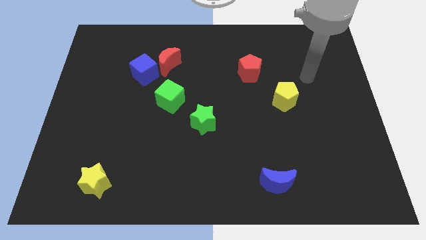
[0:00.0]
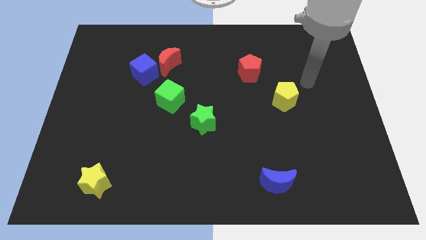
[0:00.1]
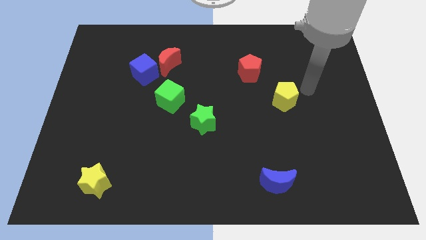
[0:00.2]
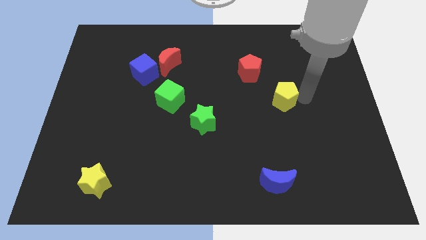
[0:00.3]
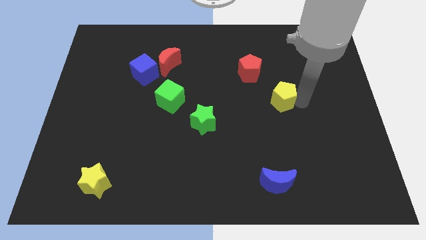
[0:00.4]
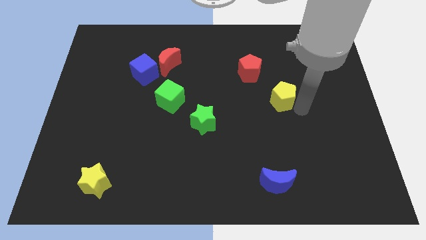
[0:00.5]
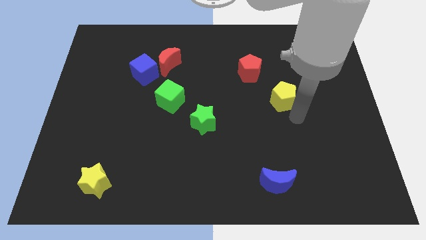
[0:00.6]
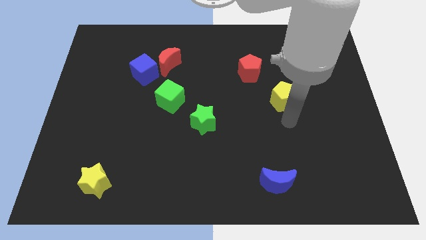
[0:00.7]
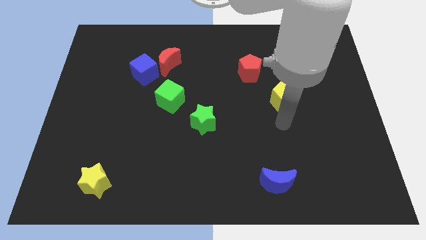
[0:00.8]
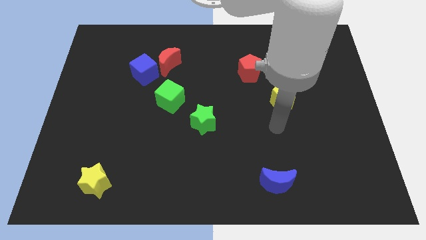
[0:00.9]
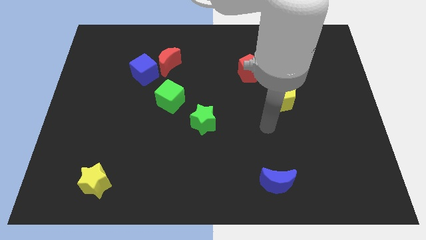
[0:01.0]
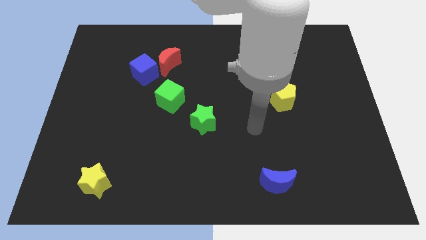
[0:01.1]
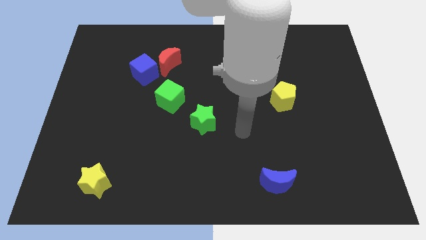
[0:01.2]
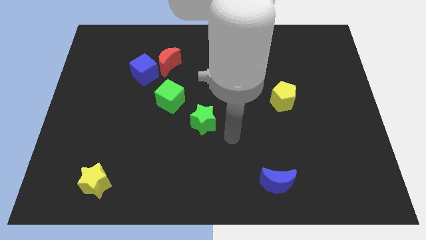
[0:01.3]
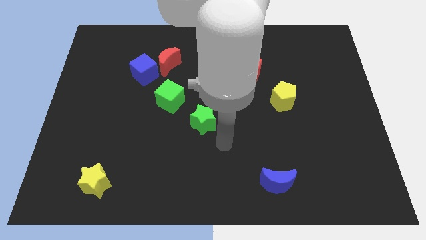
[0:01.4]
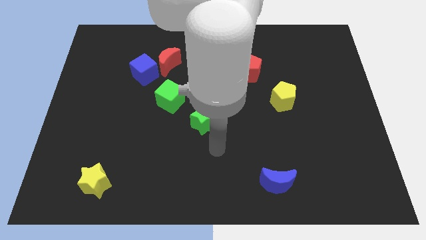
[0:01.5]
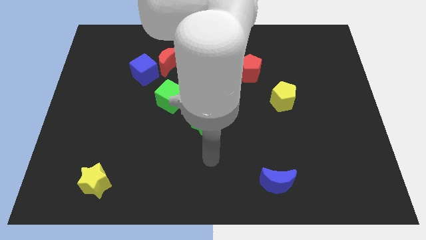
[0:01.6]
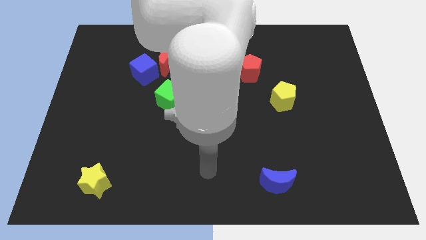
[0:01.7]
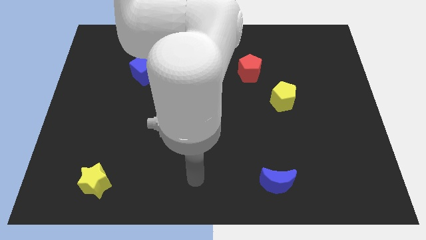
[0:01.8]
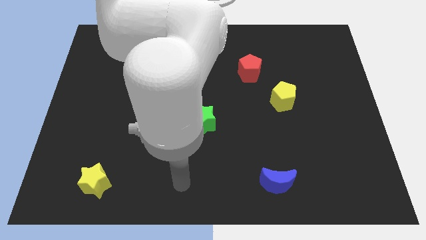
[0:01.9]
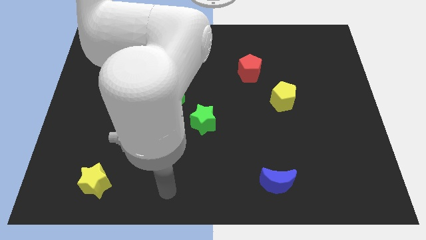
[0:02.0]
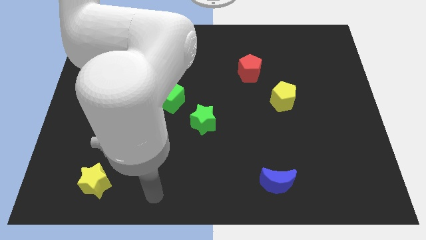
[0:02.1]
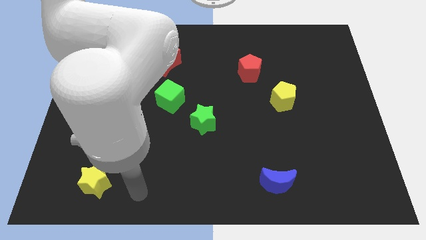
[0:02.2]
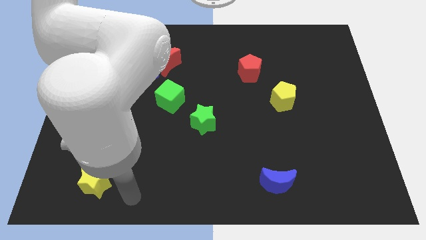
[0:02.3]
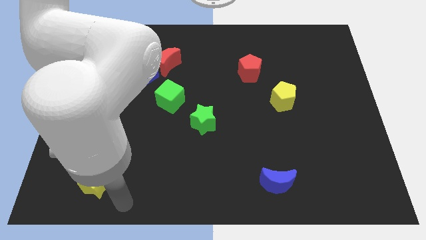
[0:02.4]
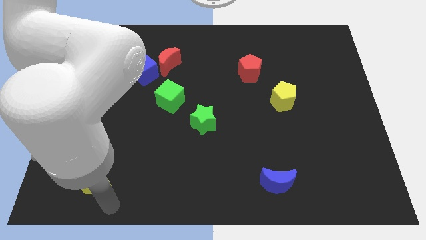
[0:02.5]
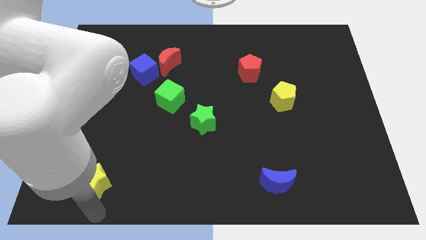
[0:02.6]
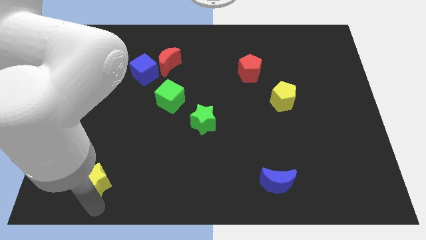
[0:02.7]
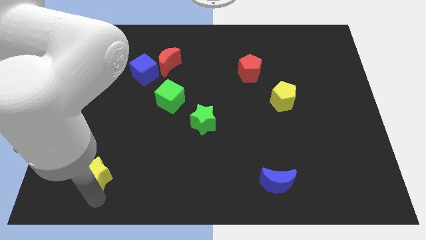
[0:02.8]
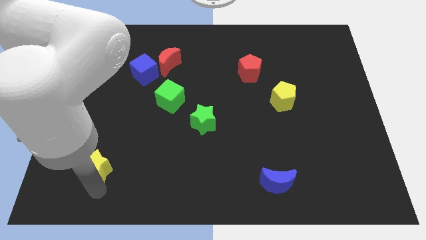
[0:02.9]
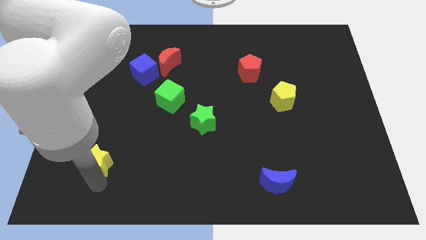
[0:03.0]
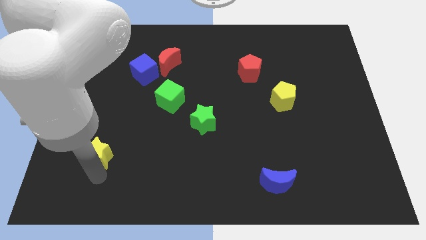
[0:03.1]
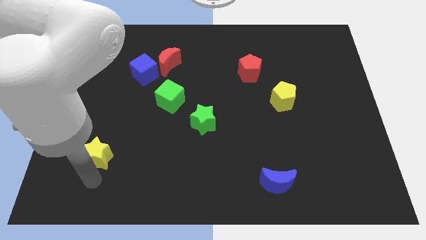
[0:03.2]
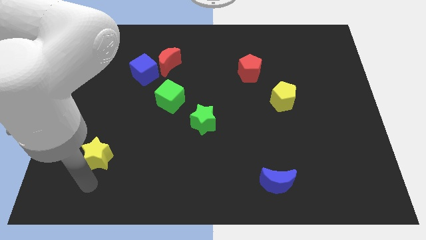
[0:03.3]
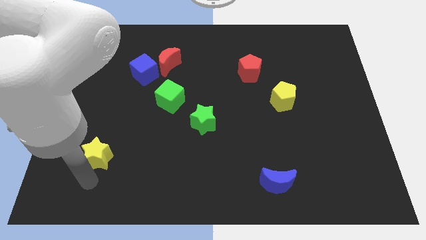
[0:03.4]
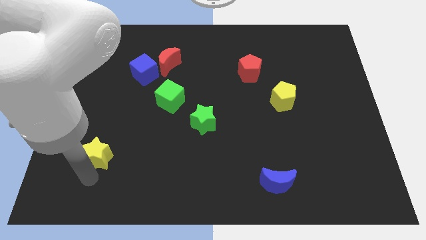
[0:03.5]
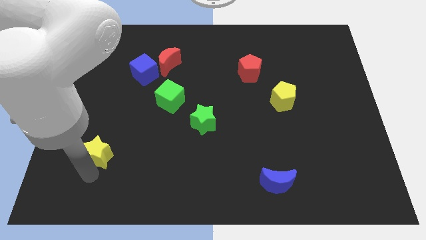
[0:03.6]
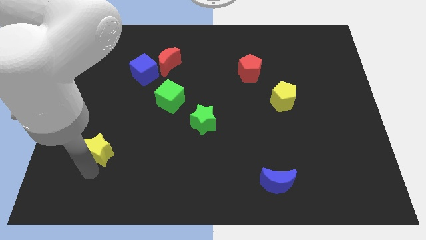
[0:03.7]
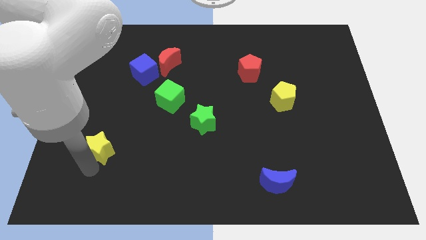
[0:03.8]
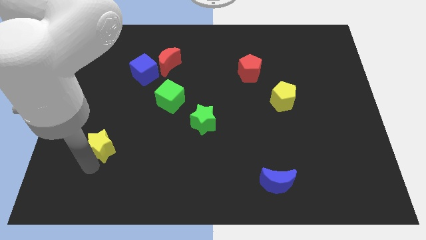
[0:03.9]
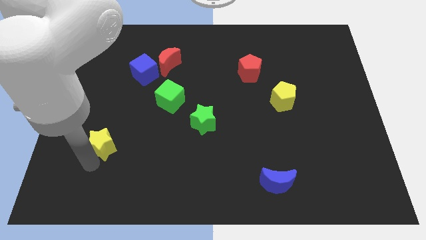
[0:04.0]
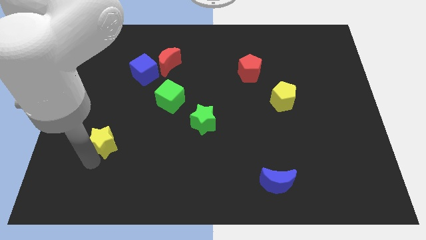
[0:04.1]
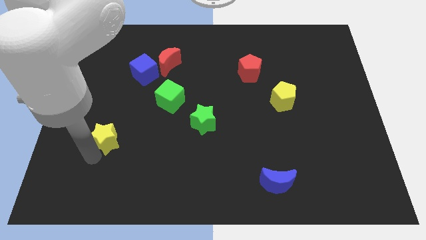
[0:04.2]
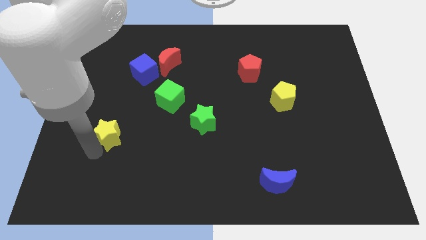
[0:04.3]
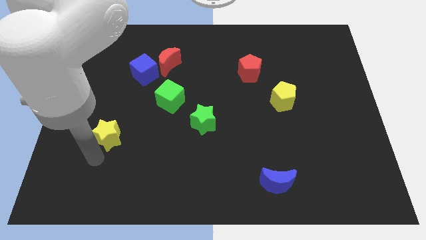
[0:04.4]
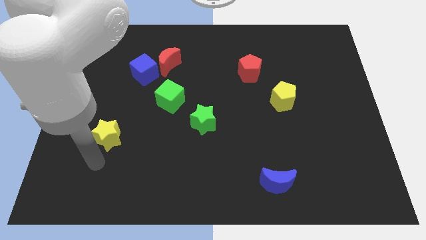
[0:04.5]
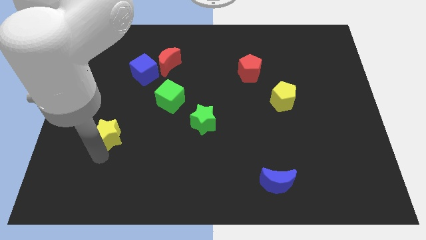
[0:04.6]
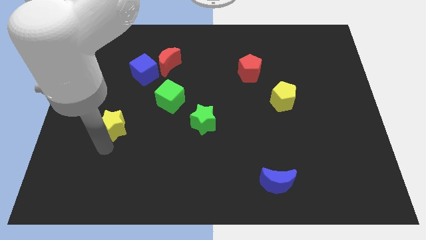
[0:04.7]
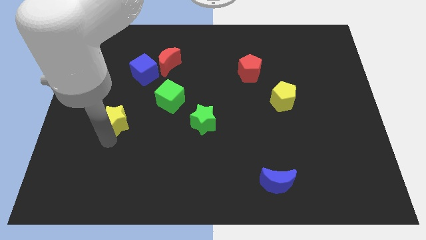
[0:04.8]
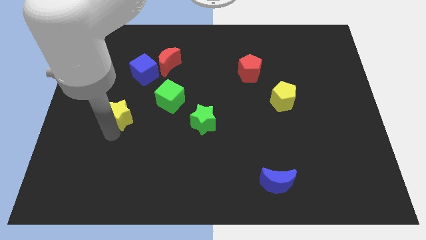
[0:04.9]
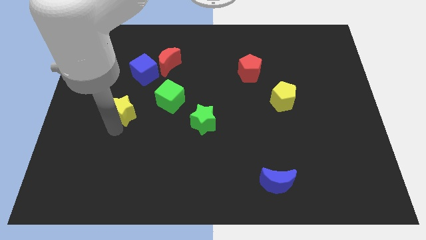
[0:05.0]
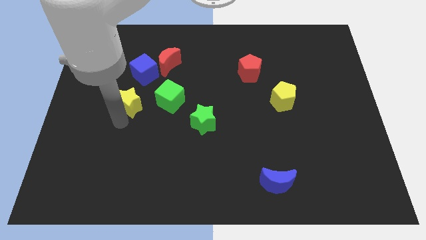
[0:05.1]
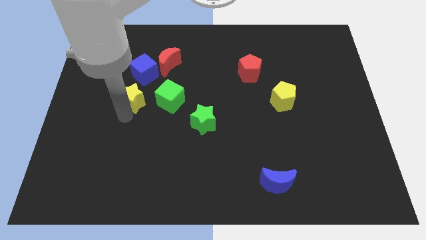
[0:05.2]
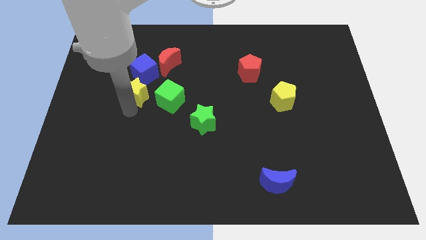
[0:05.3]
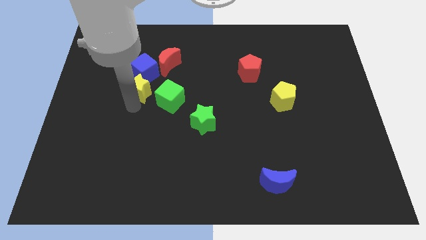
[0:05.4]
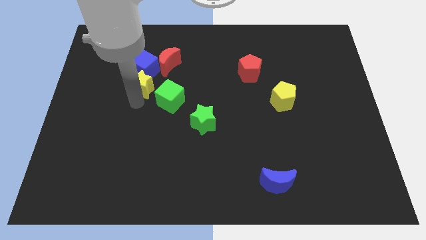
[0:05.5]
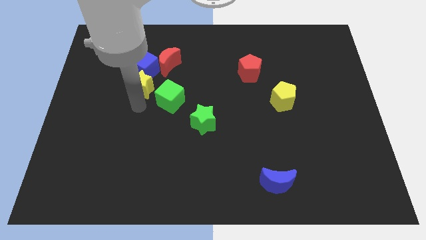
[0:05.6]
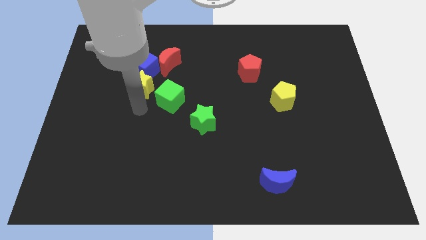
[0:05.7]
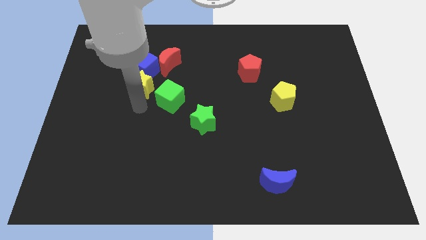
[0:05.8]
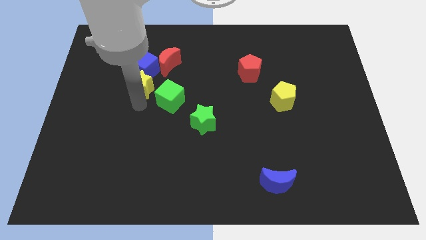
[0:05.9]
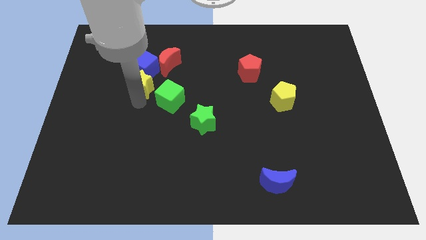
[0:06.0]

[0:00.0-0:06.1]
move the yellow star next to the blue cube

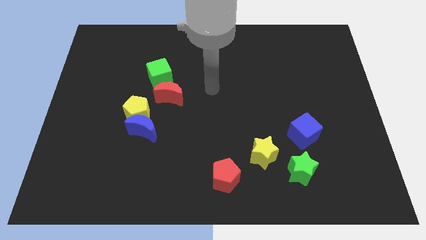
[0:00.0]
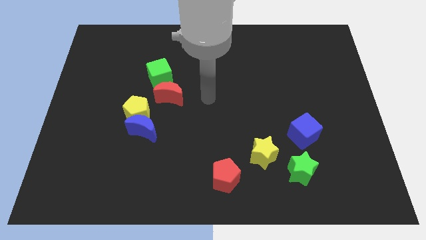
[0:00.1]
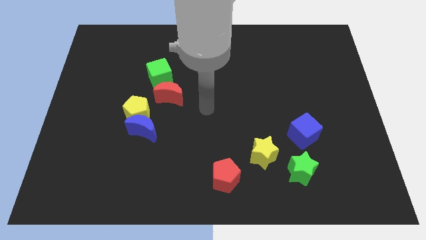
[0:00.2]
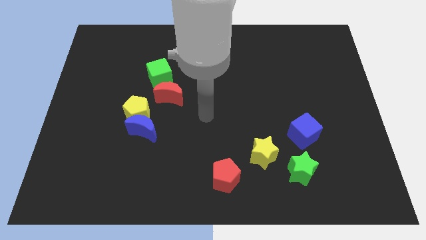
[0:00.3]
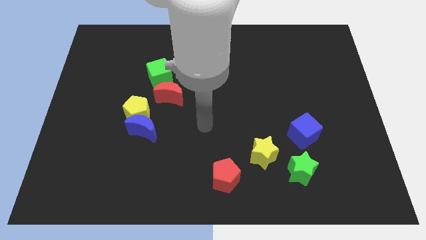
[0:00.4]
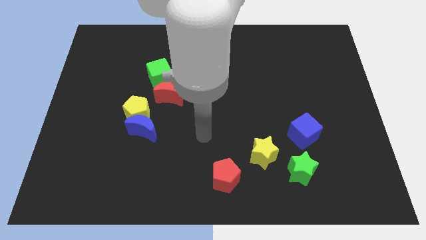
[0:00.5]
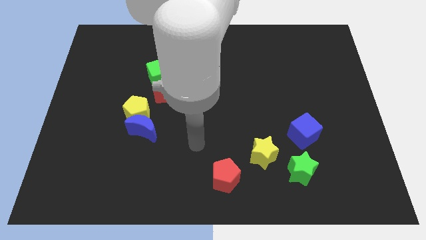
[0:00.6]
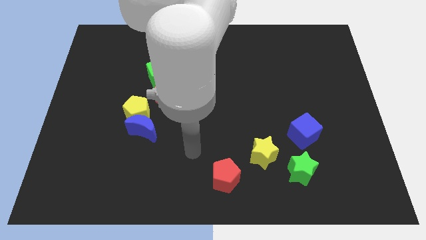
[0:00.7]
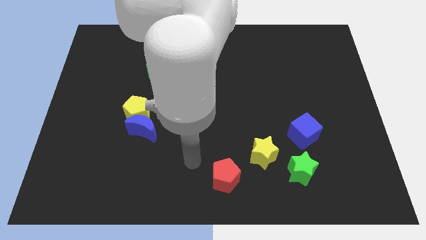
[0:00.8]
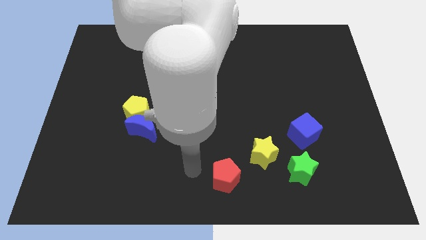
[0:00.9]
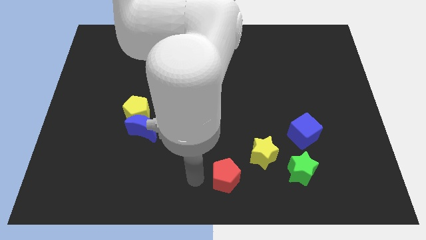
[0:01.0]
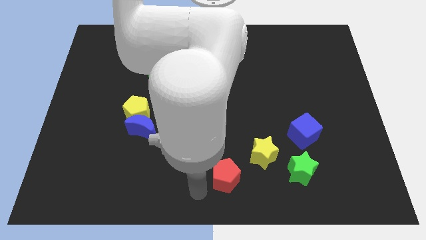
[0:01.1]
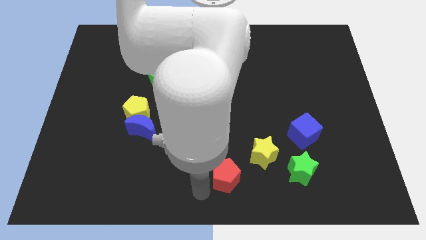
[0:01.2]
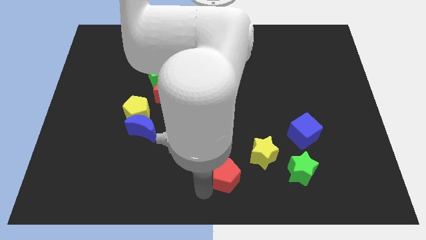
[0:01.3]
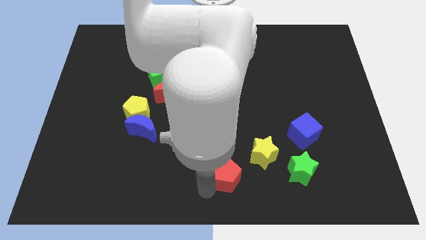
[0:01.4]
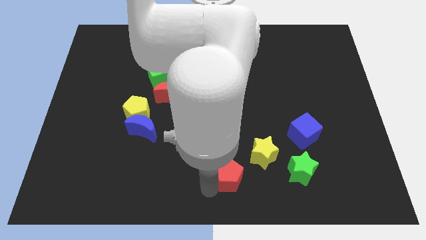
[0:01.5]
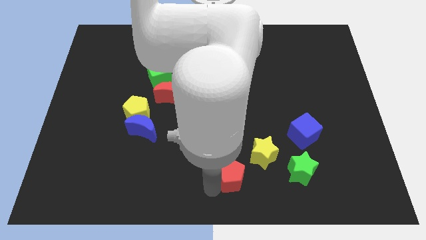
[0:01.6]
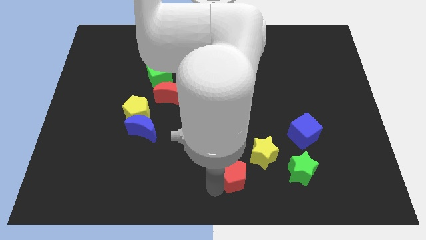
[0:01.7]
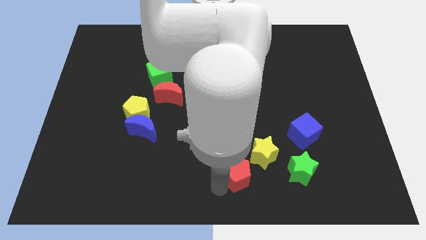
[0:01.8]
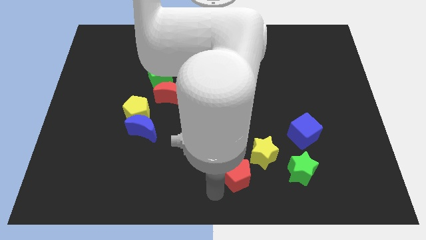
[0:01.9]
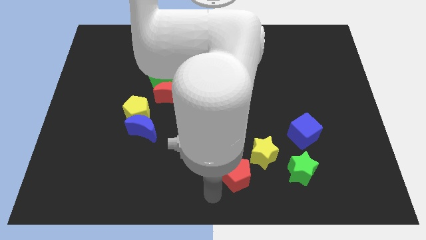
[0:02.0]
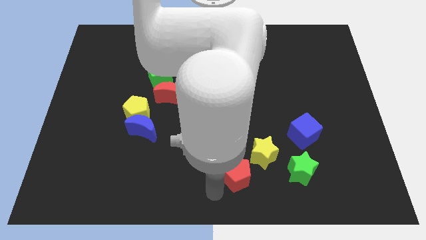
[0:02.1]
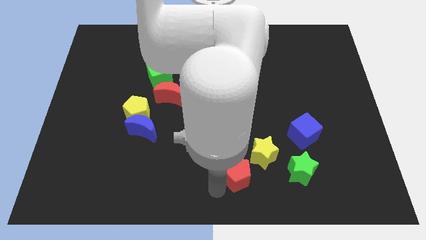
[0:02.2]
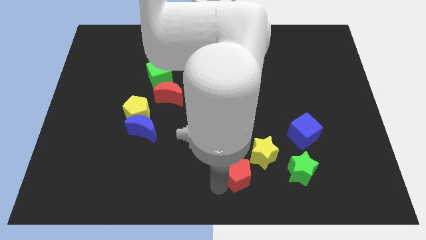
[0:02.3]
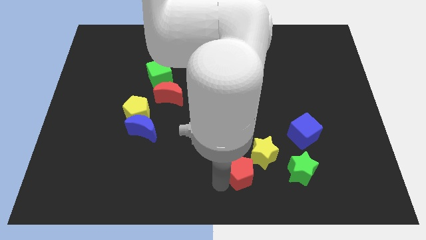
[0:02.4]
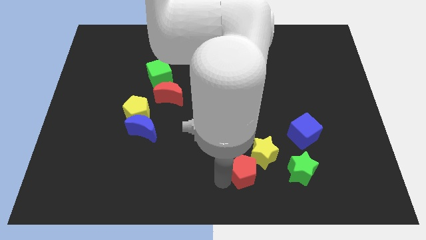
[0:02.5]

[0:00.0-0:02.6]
slide the red pentagon close to the yellow star
